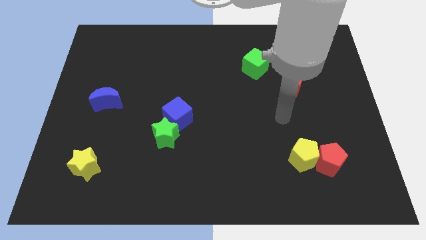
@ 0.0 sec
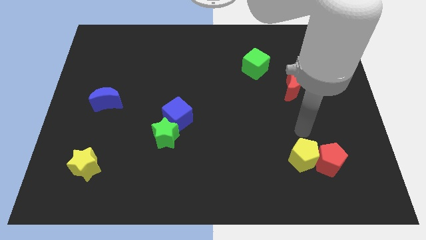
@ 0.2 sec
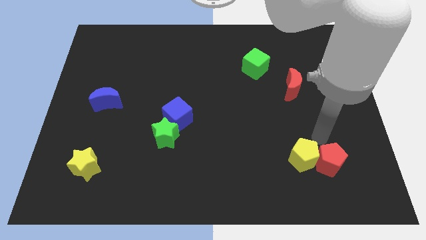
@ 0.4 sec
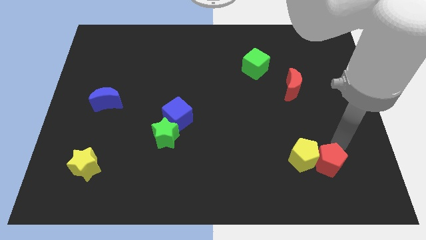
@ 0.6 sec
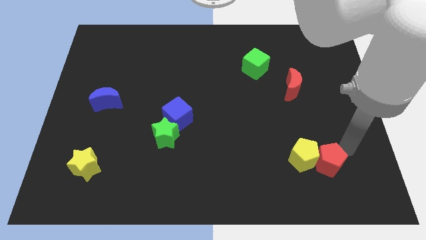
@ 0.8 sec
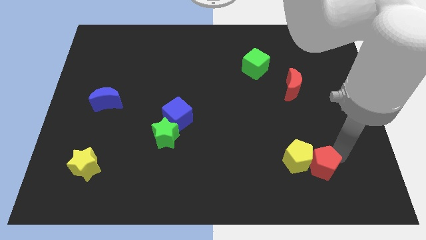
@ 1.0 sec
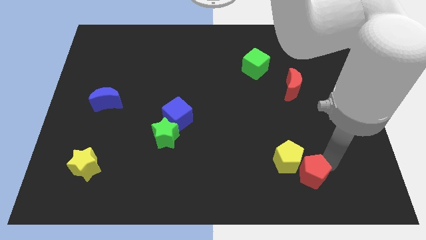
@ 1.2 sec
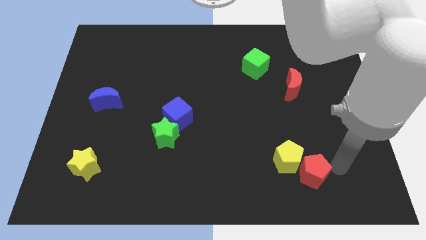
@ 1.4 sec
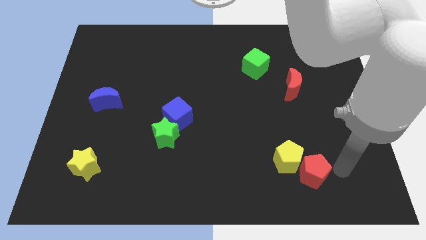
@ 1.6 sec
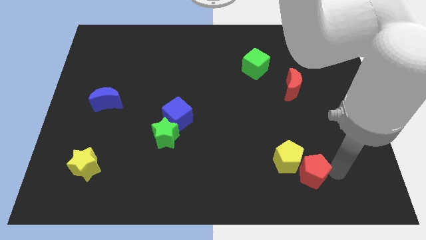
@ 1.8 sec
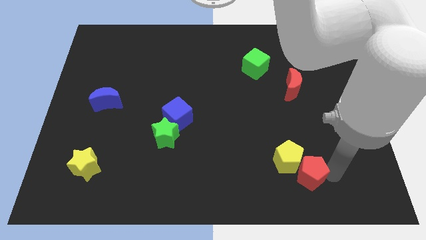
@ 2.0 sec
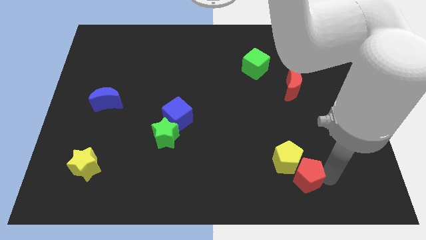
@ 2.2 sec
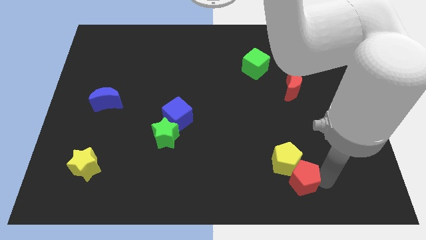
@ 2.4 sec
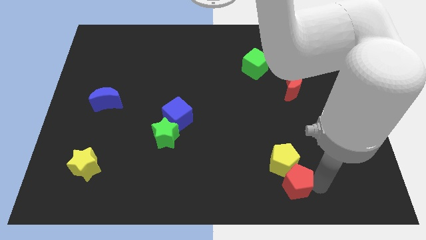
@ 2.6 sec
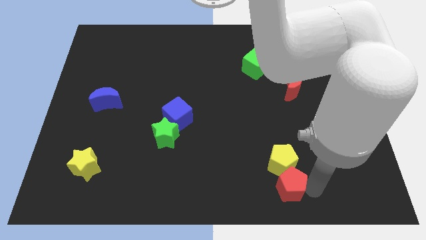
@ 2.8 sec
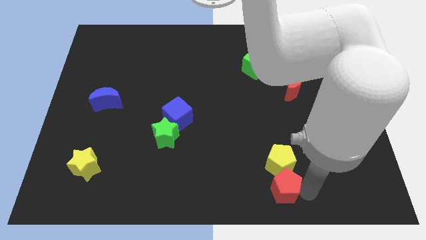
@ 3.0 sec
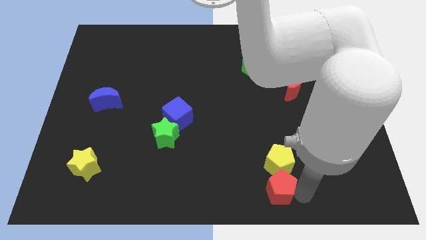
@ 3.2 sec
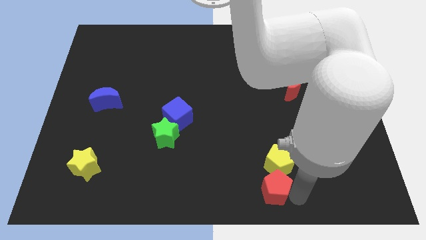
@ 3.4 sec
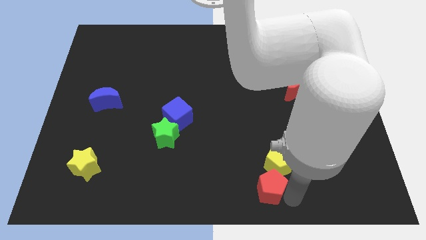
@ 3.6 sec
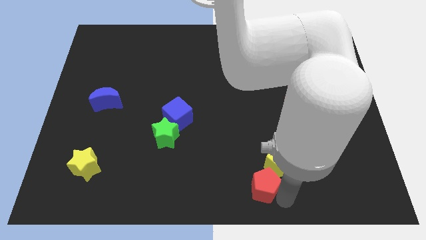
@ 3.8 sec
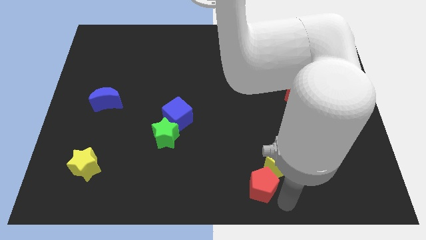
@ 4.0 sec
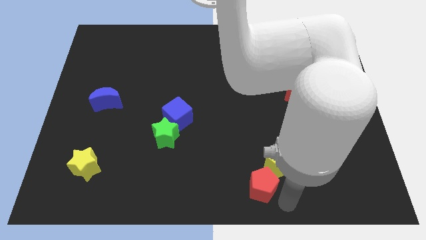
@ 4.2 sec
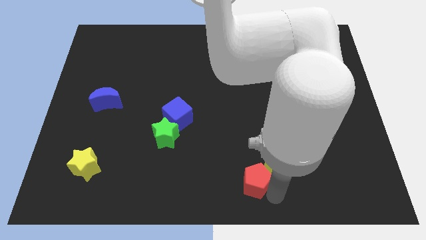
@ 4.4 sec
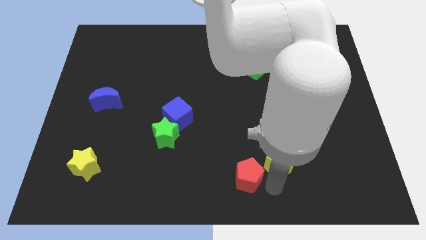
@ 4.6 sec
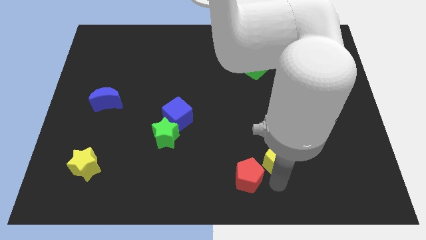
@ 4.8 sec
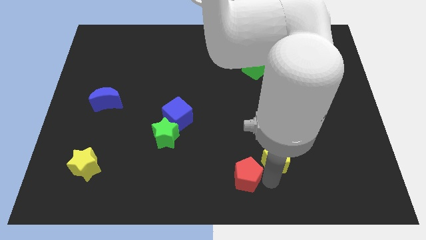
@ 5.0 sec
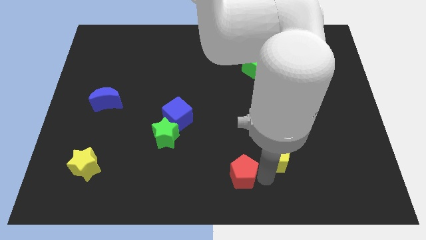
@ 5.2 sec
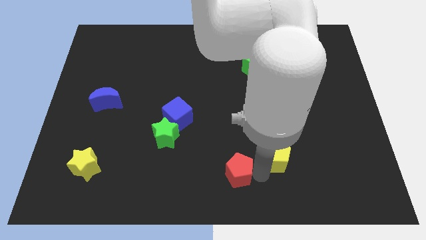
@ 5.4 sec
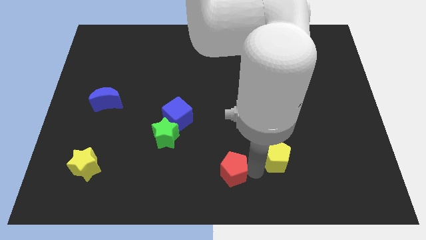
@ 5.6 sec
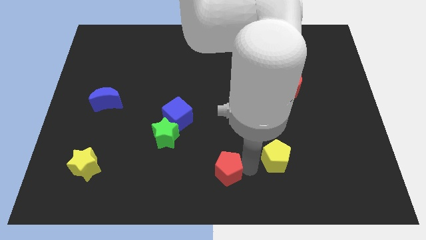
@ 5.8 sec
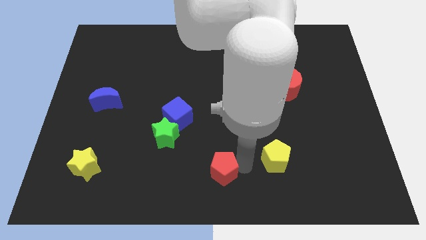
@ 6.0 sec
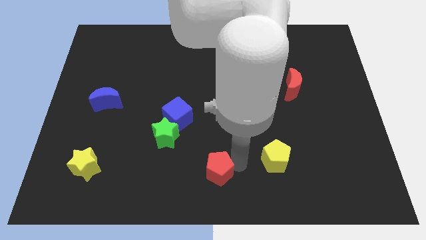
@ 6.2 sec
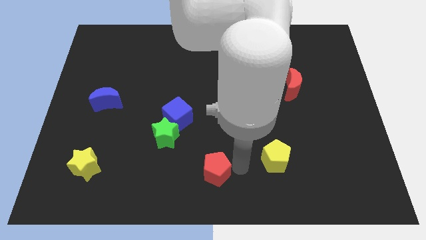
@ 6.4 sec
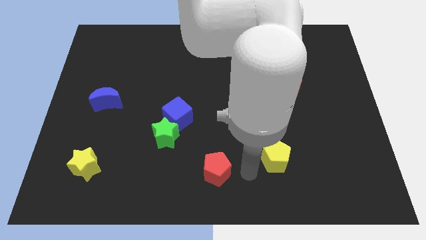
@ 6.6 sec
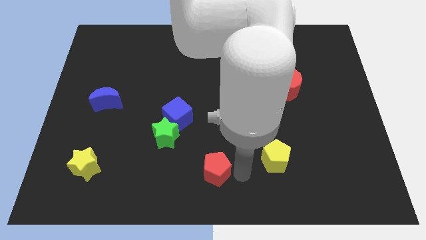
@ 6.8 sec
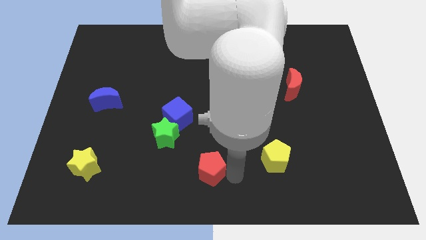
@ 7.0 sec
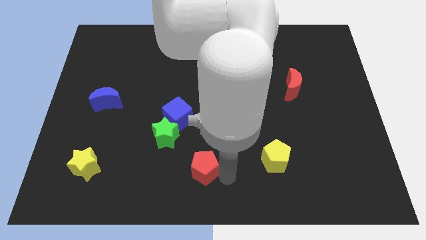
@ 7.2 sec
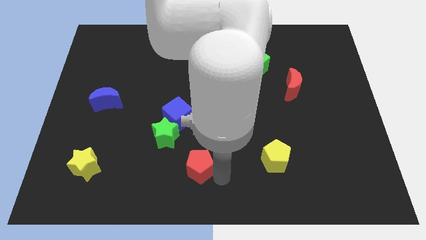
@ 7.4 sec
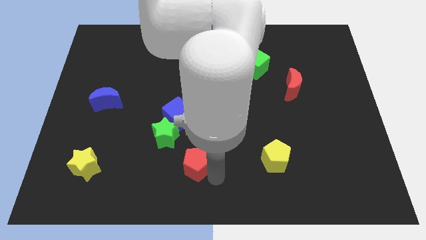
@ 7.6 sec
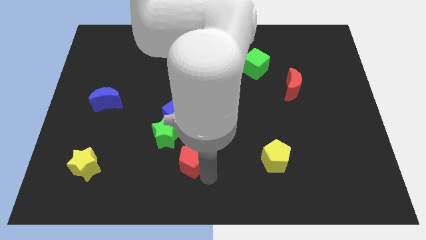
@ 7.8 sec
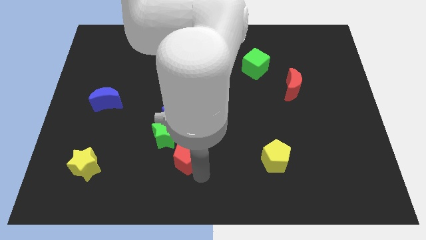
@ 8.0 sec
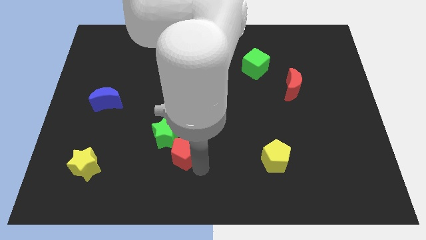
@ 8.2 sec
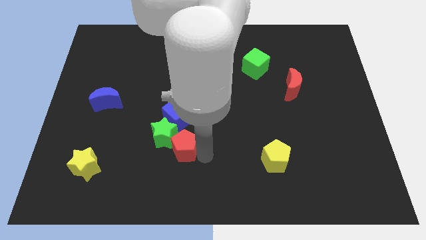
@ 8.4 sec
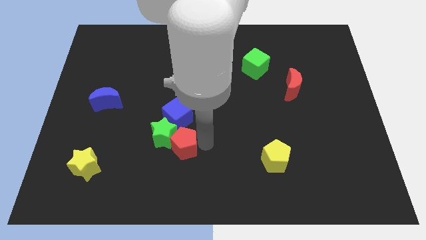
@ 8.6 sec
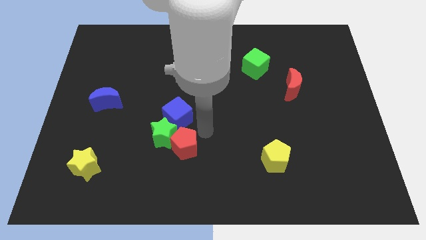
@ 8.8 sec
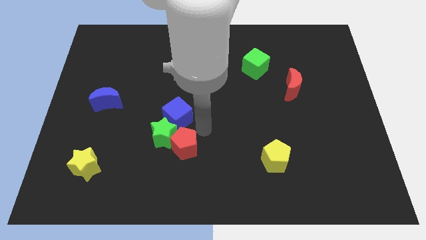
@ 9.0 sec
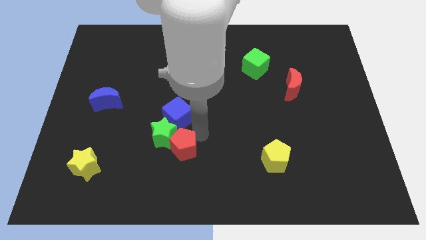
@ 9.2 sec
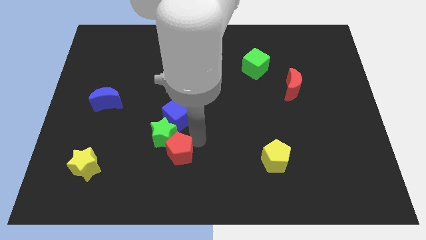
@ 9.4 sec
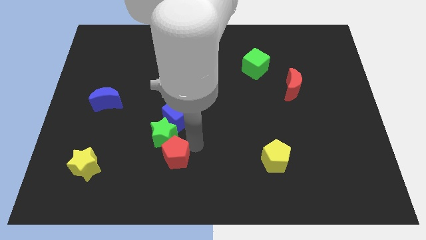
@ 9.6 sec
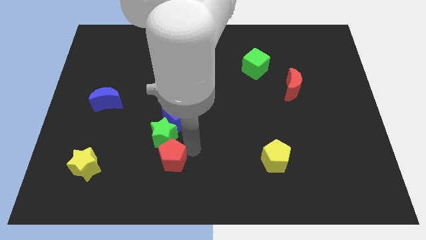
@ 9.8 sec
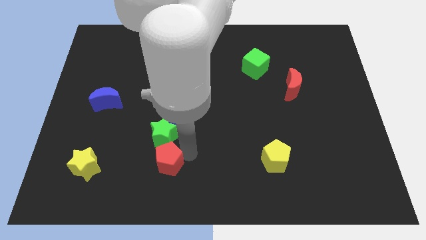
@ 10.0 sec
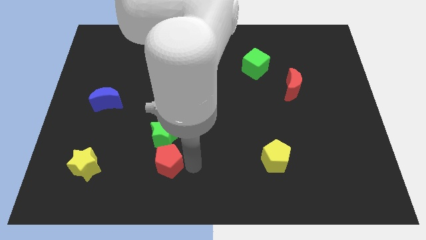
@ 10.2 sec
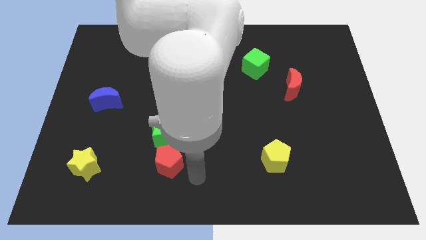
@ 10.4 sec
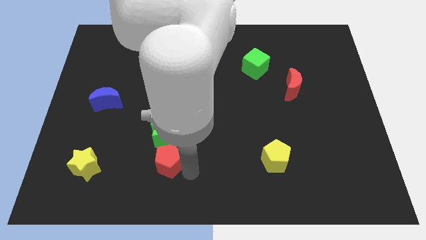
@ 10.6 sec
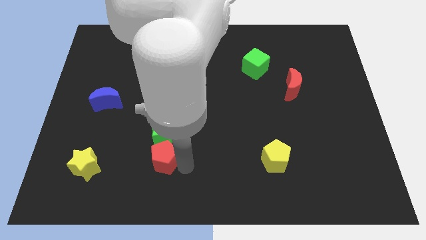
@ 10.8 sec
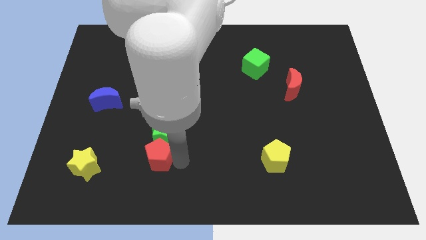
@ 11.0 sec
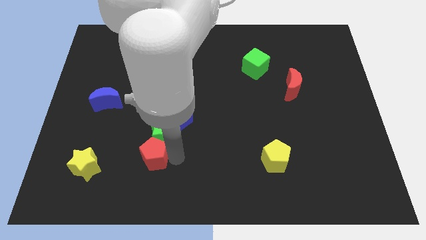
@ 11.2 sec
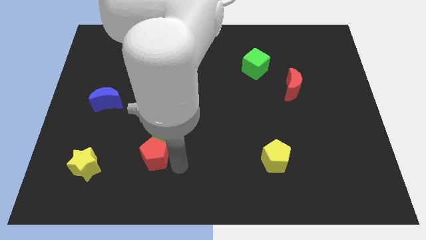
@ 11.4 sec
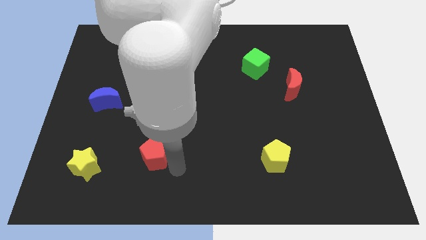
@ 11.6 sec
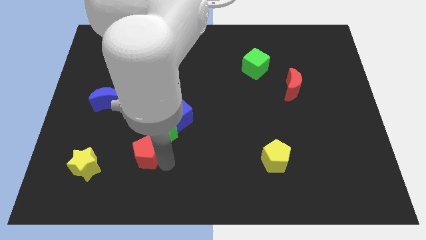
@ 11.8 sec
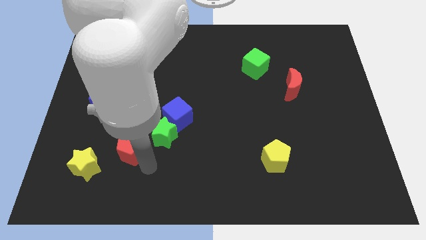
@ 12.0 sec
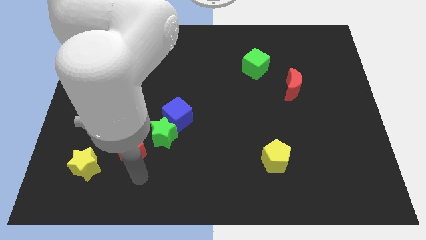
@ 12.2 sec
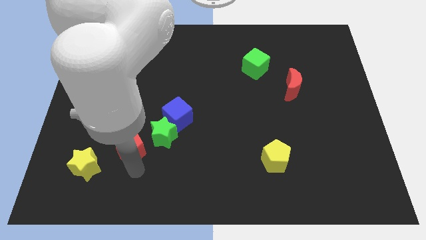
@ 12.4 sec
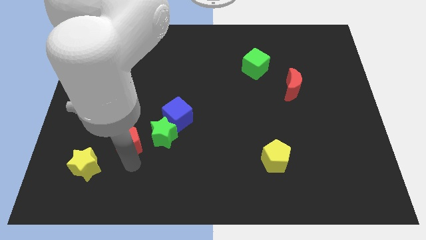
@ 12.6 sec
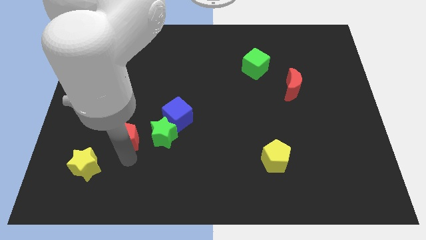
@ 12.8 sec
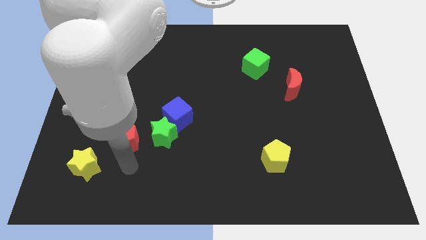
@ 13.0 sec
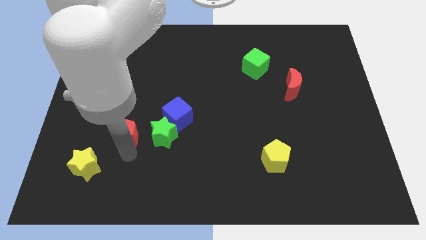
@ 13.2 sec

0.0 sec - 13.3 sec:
move the red pentagon to the bottom right of the blue moon

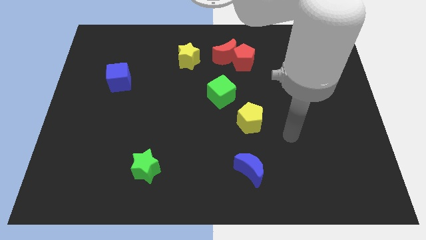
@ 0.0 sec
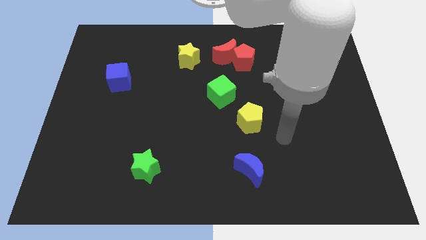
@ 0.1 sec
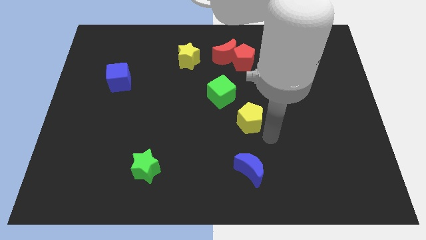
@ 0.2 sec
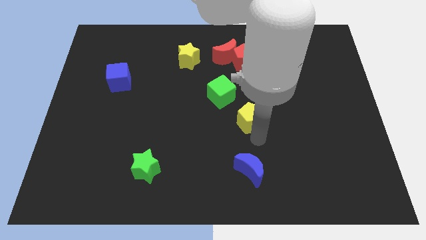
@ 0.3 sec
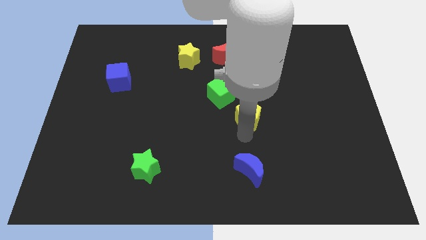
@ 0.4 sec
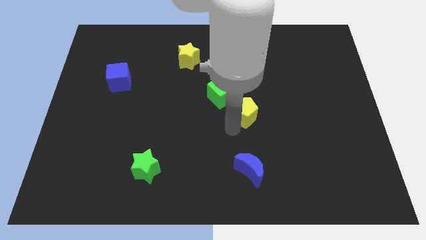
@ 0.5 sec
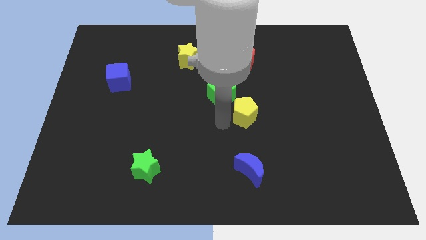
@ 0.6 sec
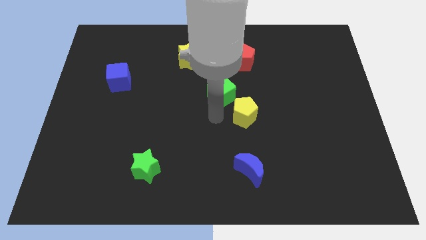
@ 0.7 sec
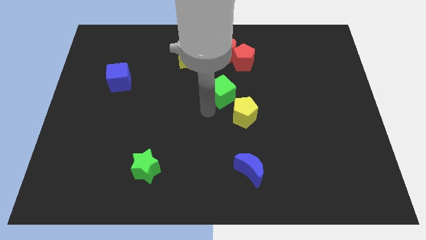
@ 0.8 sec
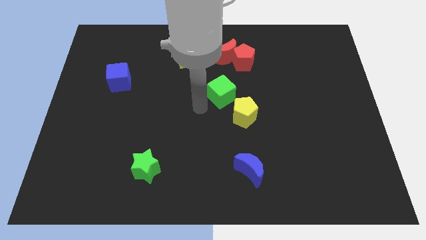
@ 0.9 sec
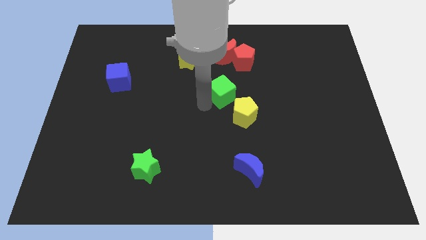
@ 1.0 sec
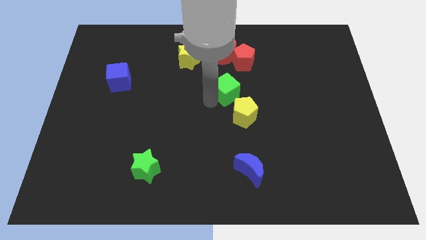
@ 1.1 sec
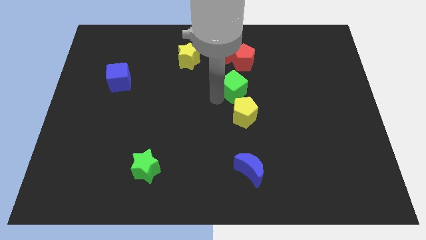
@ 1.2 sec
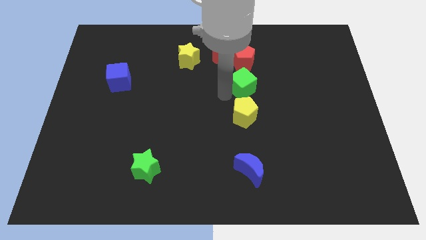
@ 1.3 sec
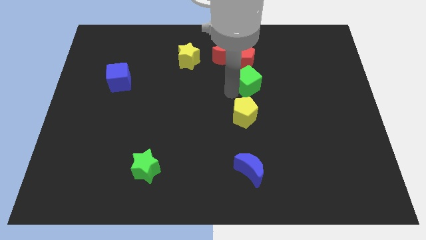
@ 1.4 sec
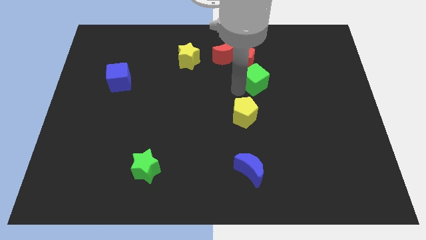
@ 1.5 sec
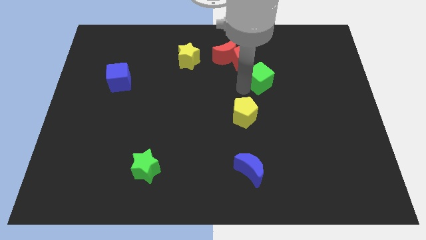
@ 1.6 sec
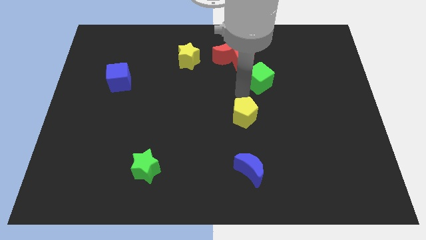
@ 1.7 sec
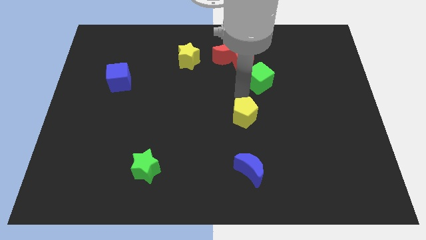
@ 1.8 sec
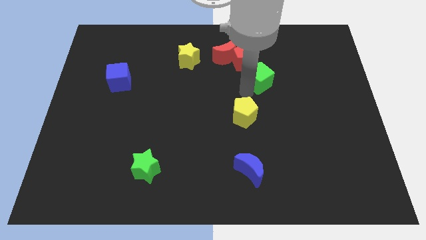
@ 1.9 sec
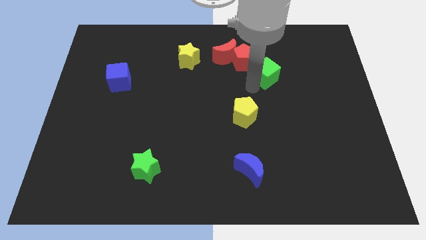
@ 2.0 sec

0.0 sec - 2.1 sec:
put the green cube just right of the red pentagon
